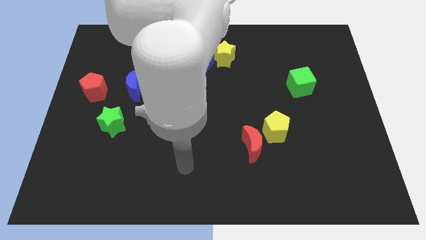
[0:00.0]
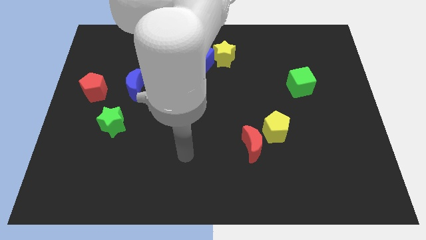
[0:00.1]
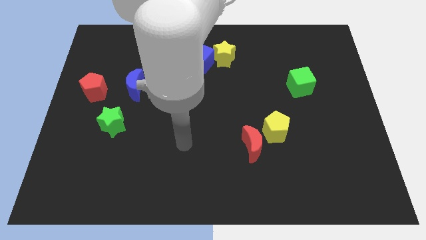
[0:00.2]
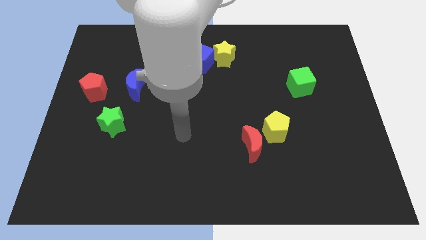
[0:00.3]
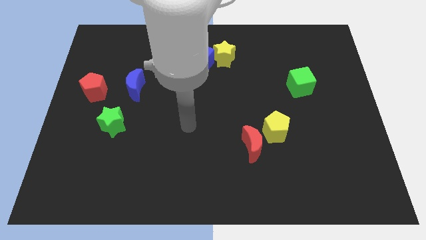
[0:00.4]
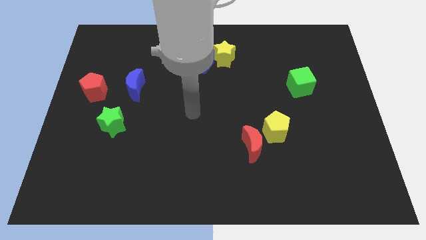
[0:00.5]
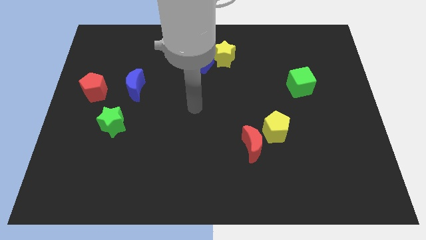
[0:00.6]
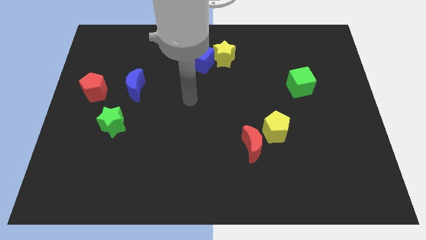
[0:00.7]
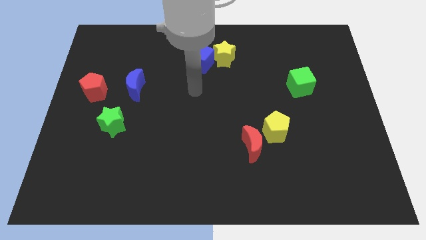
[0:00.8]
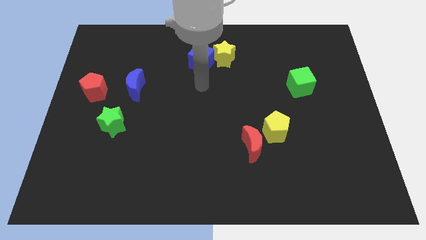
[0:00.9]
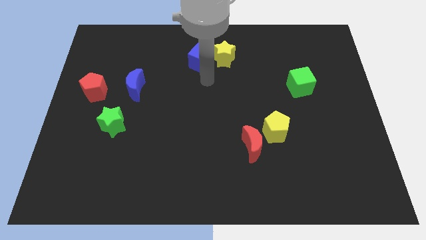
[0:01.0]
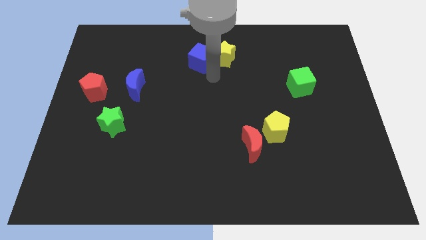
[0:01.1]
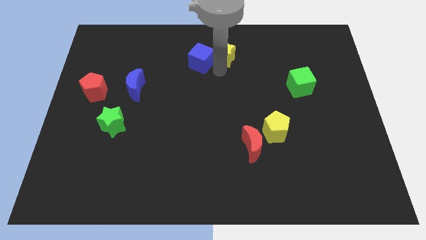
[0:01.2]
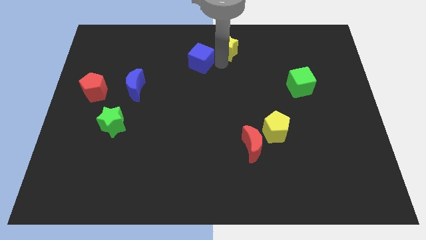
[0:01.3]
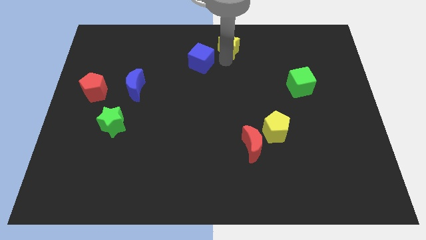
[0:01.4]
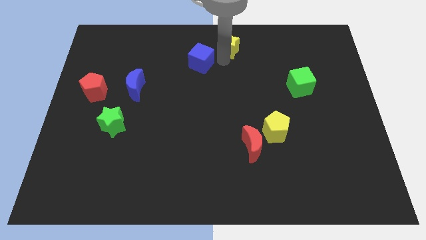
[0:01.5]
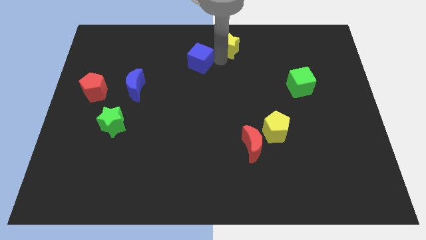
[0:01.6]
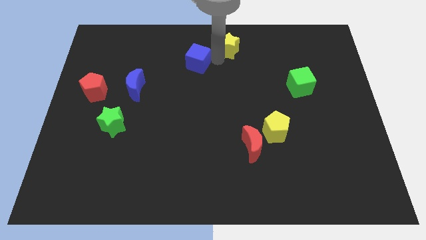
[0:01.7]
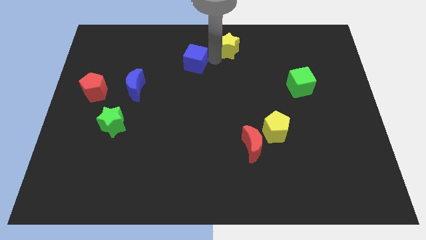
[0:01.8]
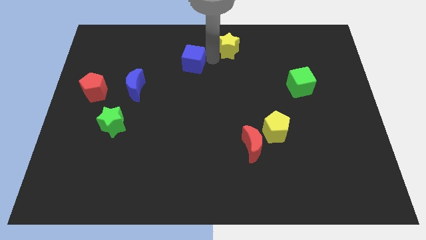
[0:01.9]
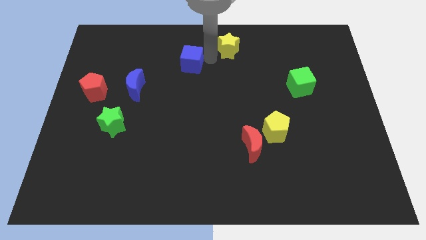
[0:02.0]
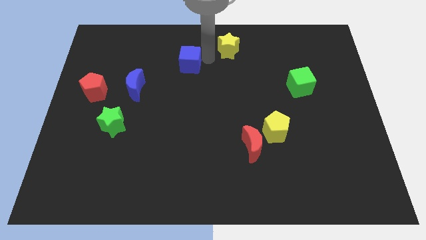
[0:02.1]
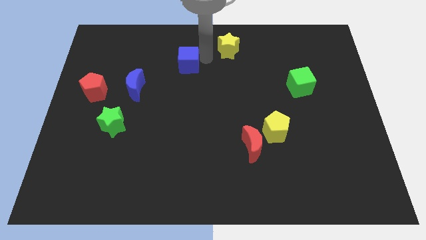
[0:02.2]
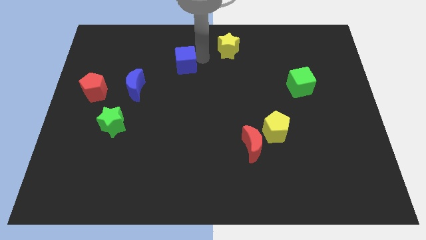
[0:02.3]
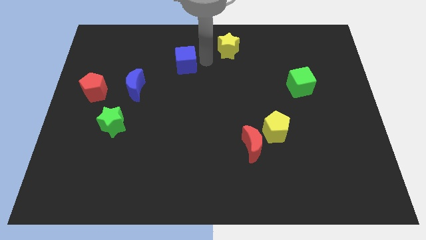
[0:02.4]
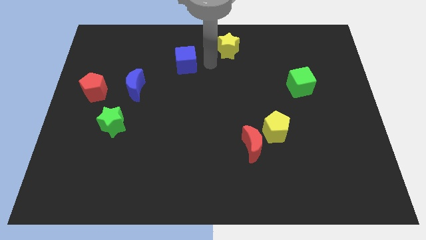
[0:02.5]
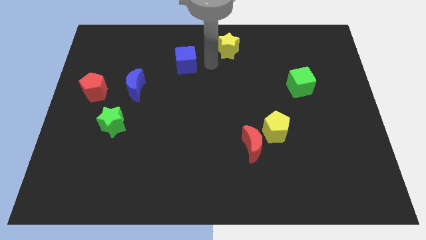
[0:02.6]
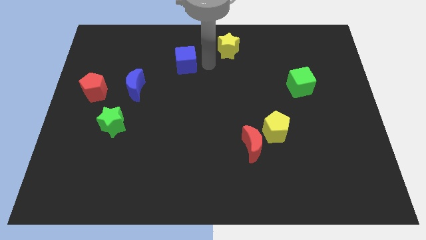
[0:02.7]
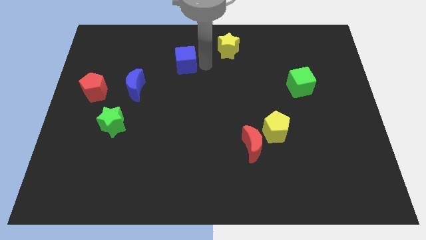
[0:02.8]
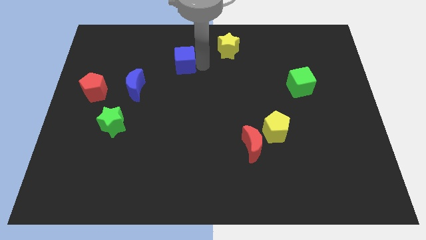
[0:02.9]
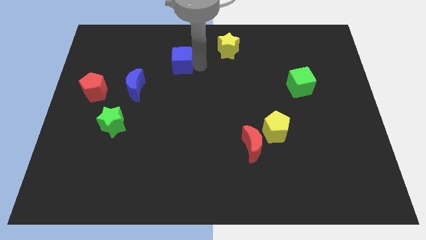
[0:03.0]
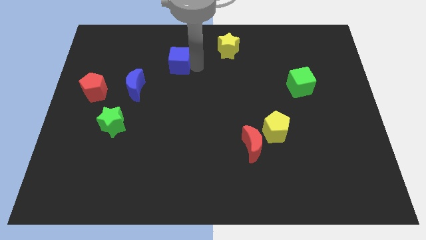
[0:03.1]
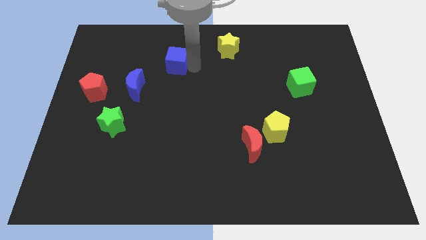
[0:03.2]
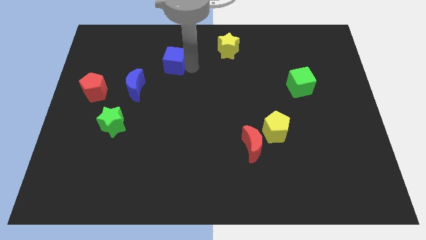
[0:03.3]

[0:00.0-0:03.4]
move the blue cube left somewhat

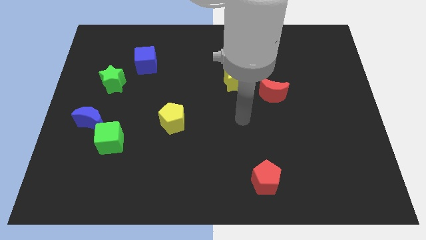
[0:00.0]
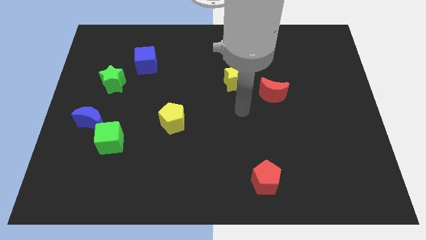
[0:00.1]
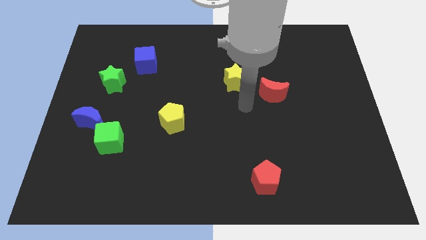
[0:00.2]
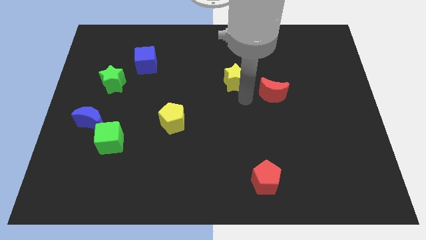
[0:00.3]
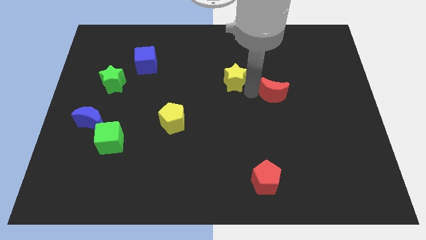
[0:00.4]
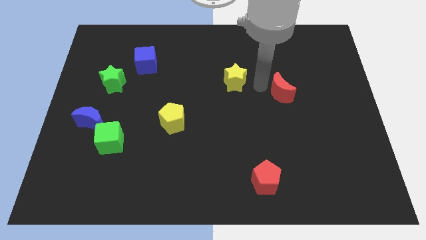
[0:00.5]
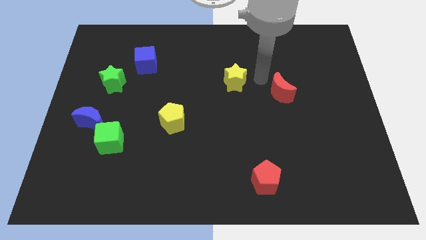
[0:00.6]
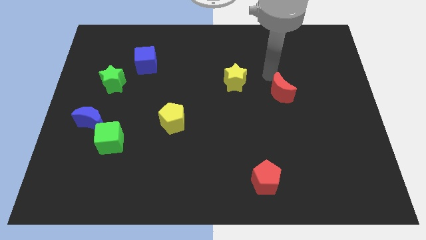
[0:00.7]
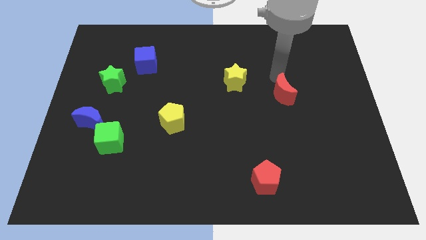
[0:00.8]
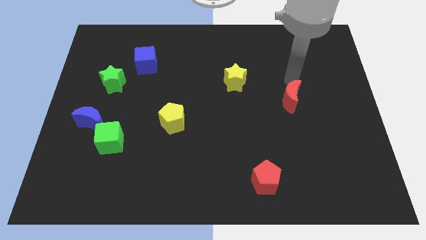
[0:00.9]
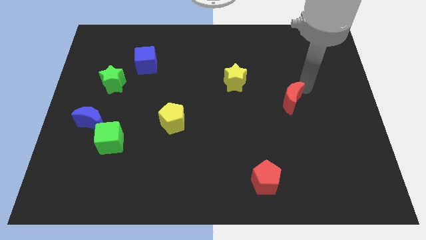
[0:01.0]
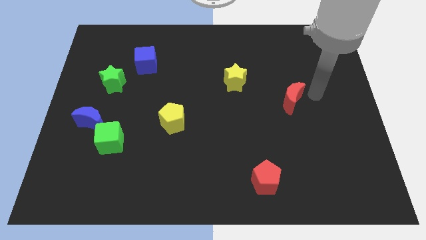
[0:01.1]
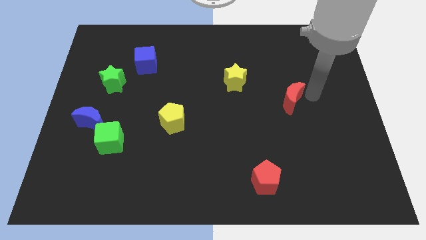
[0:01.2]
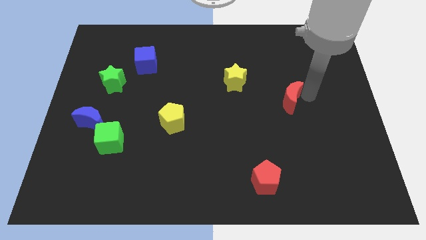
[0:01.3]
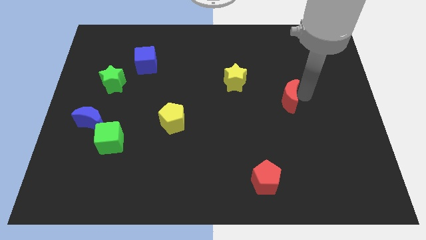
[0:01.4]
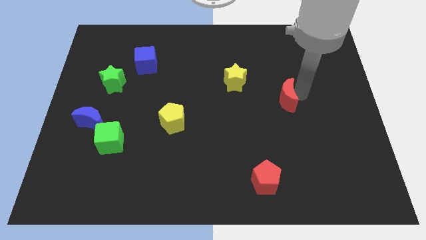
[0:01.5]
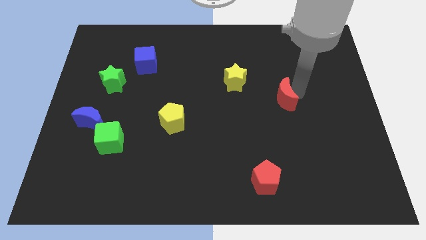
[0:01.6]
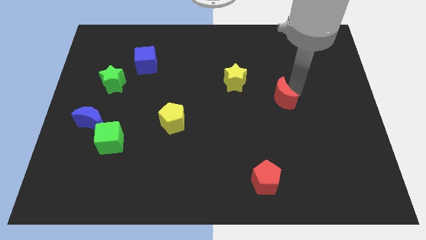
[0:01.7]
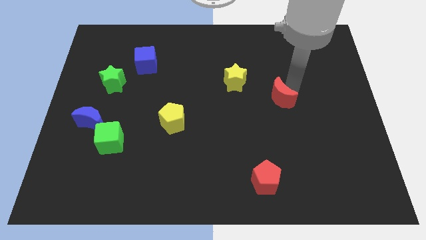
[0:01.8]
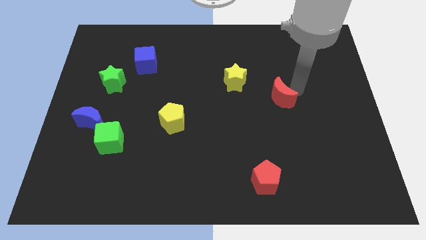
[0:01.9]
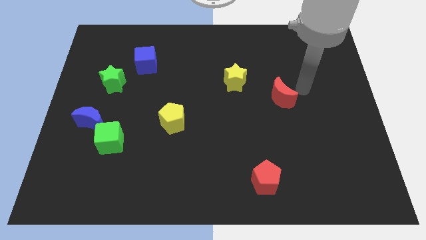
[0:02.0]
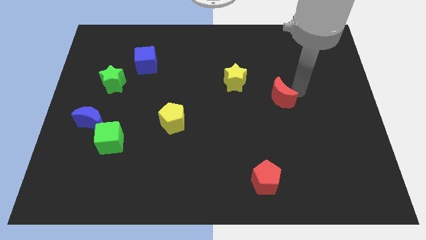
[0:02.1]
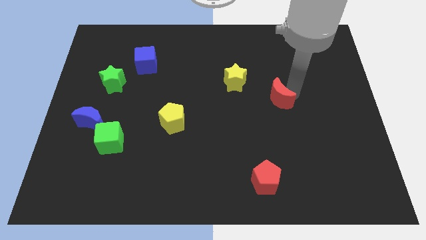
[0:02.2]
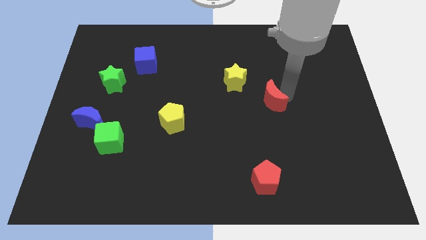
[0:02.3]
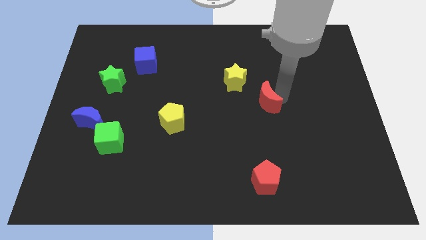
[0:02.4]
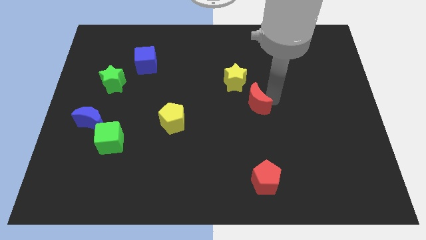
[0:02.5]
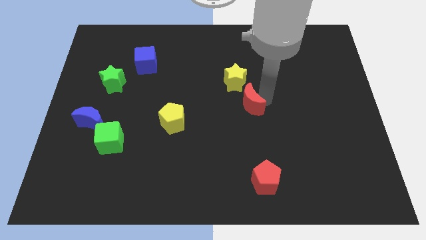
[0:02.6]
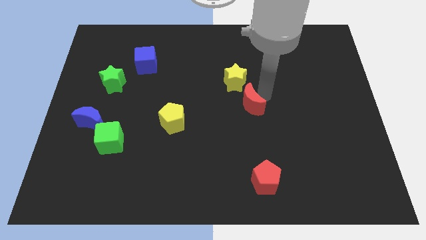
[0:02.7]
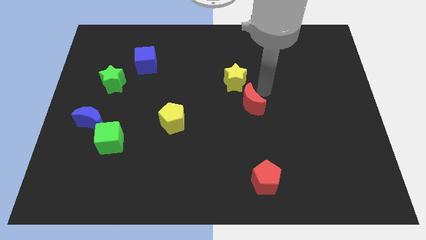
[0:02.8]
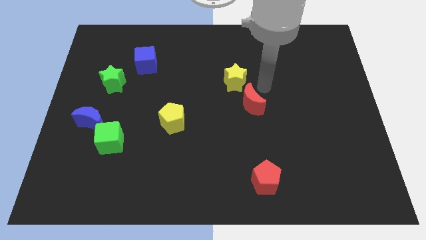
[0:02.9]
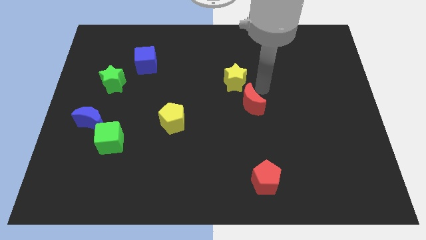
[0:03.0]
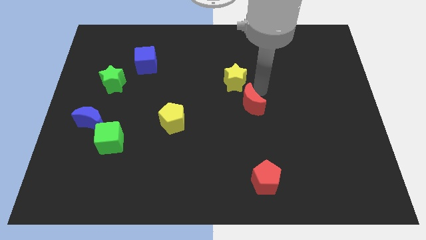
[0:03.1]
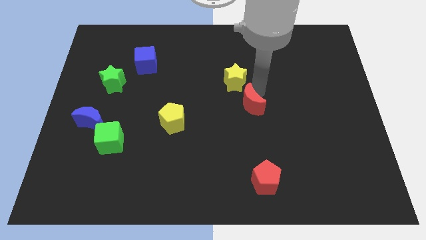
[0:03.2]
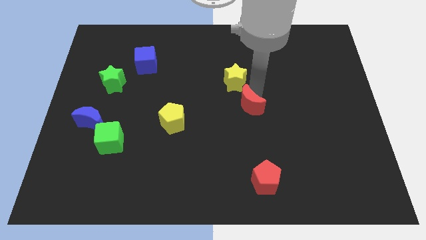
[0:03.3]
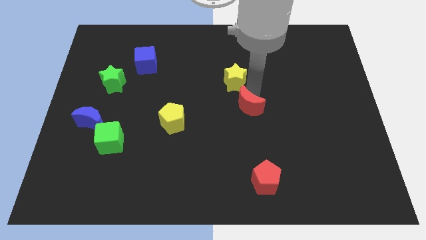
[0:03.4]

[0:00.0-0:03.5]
slightly push the red moon down and to the left

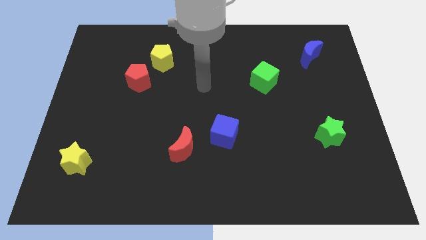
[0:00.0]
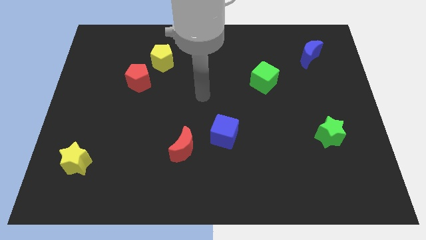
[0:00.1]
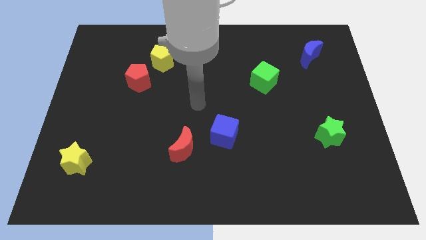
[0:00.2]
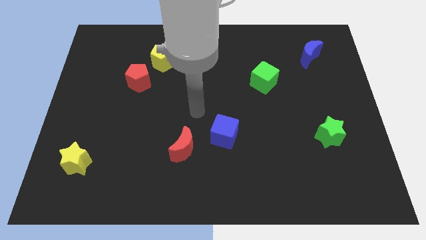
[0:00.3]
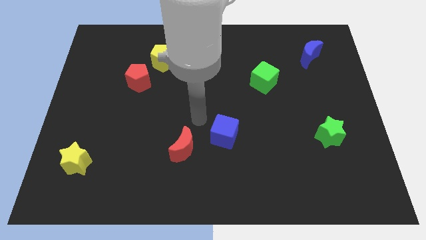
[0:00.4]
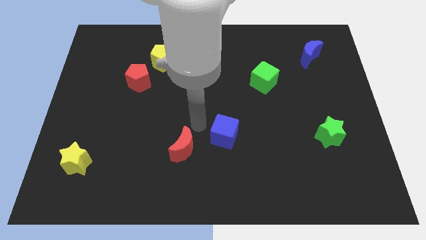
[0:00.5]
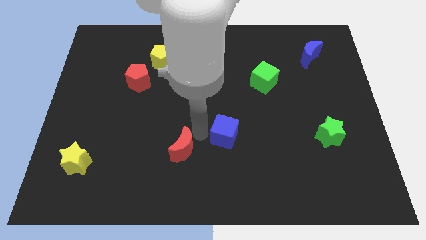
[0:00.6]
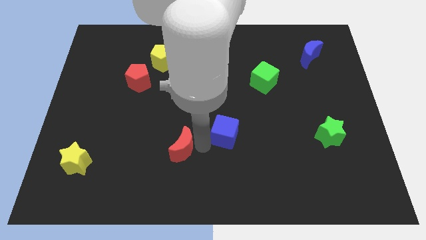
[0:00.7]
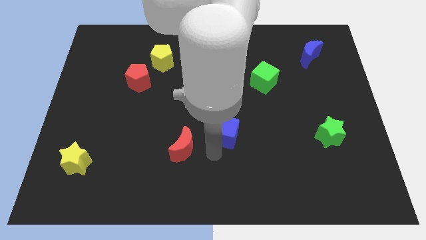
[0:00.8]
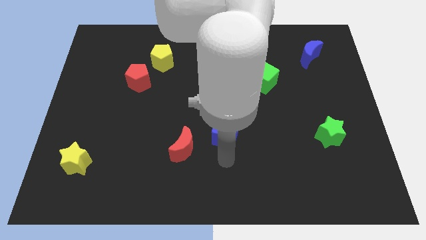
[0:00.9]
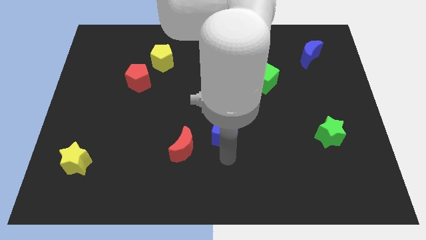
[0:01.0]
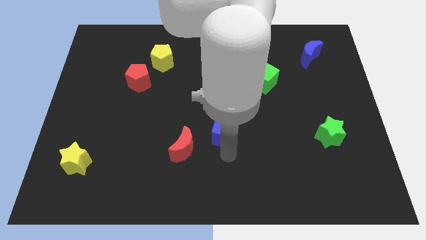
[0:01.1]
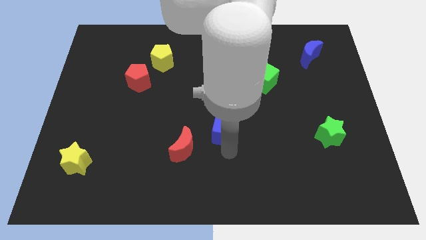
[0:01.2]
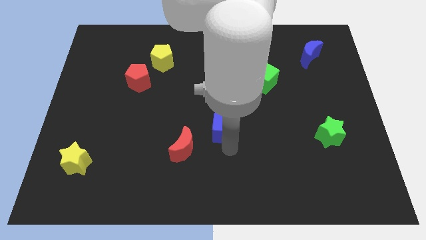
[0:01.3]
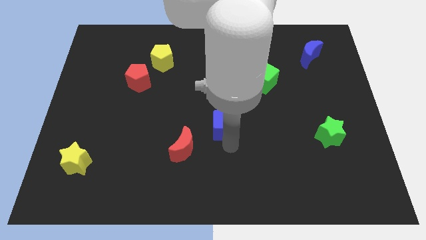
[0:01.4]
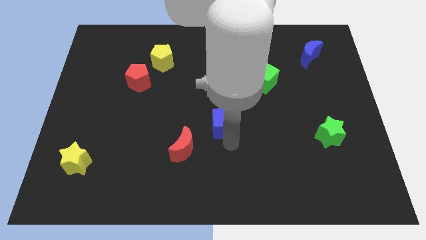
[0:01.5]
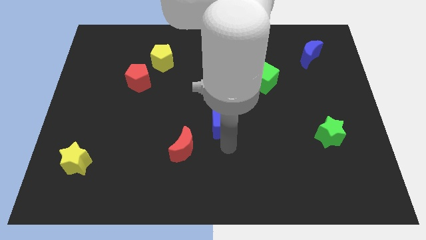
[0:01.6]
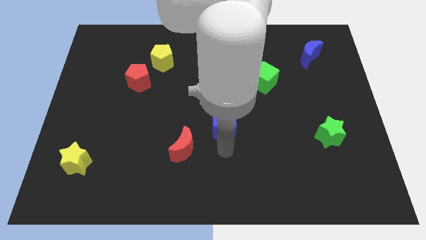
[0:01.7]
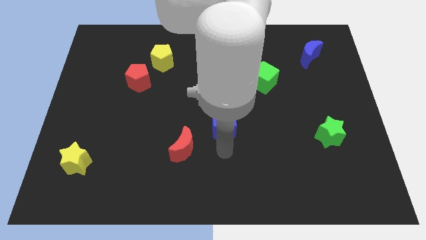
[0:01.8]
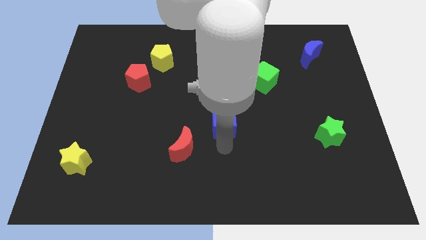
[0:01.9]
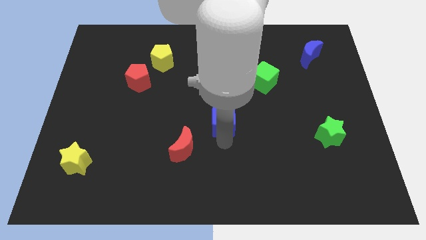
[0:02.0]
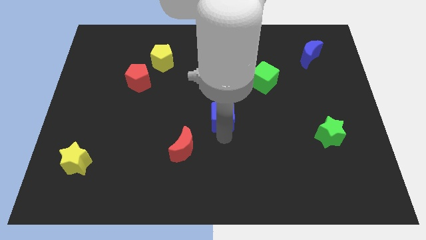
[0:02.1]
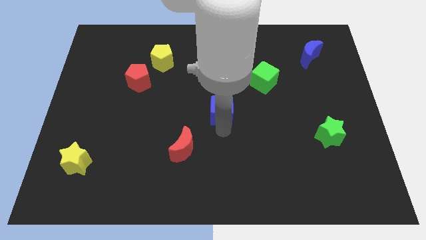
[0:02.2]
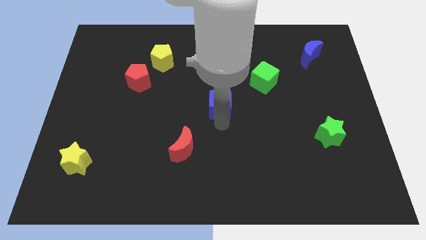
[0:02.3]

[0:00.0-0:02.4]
push the blue cube slightly upwards
